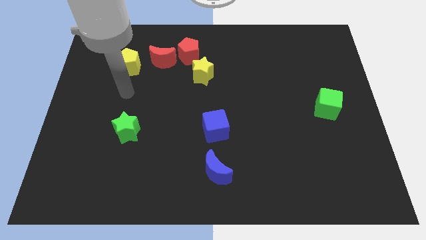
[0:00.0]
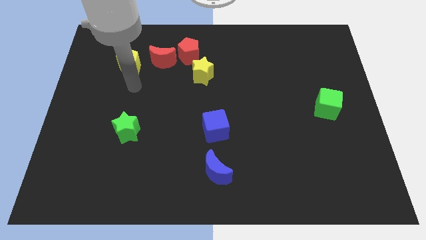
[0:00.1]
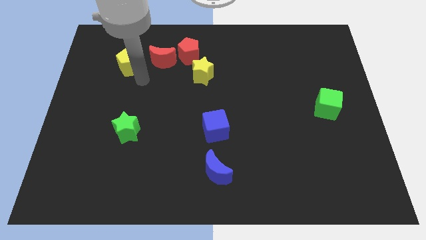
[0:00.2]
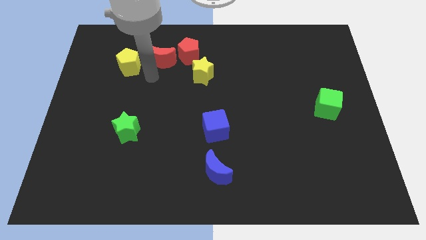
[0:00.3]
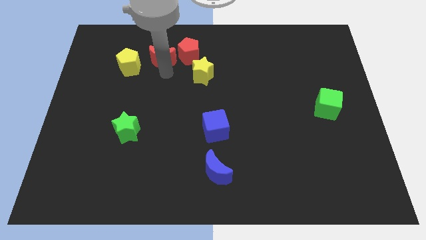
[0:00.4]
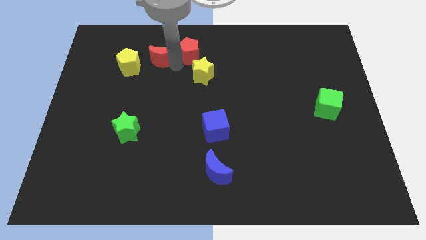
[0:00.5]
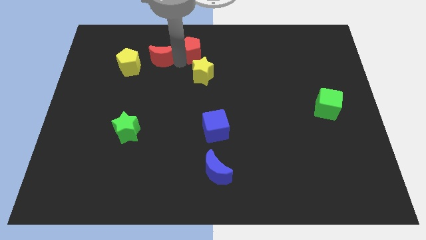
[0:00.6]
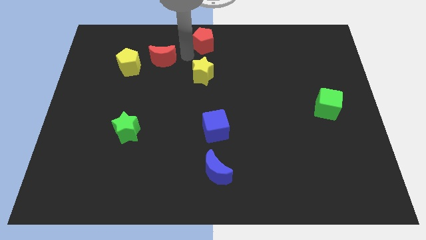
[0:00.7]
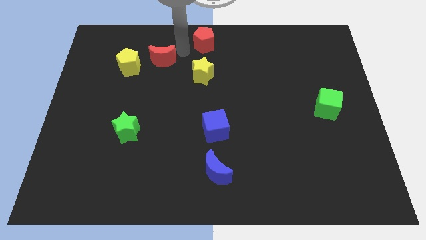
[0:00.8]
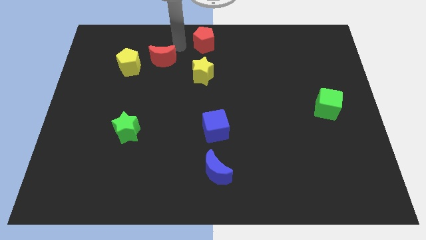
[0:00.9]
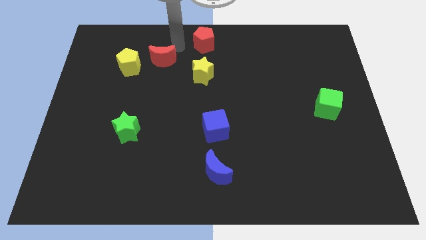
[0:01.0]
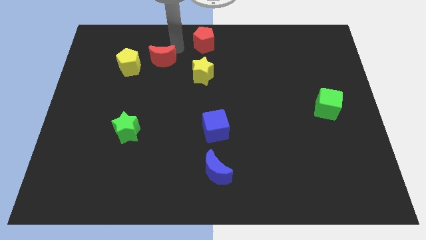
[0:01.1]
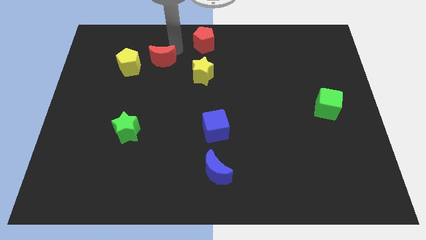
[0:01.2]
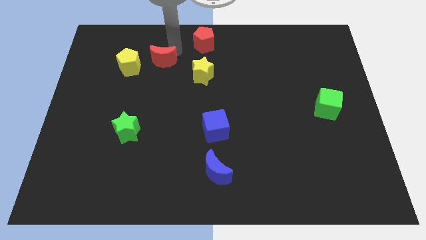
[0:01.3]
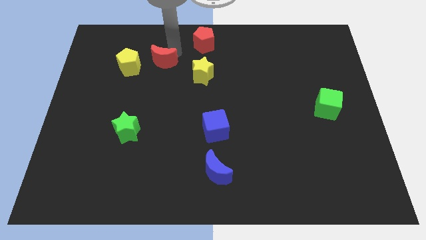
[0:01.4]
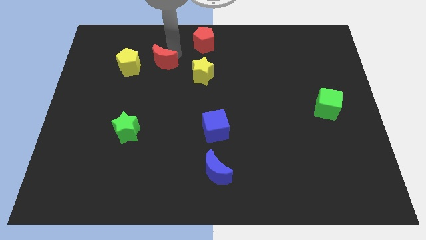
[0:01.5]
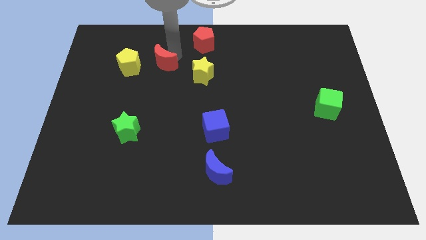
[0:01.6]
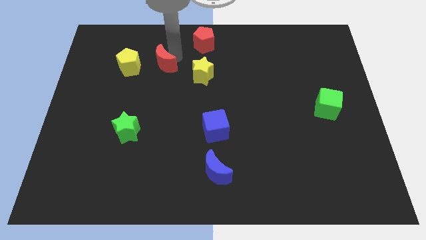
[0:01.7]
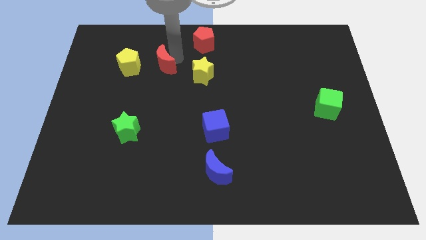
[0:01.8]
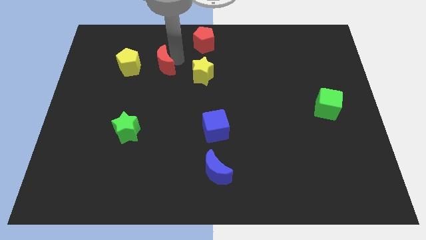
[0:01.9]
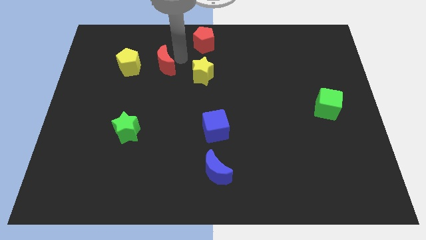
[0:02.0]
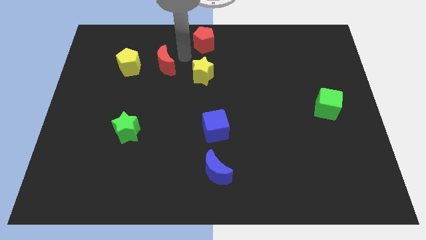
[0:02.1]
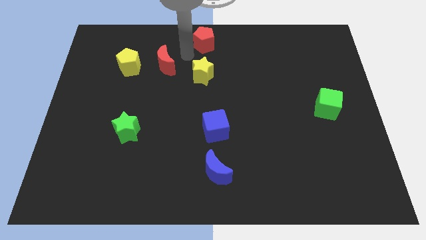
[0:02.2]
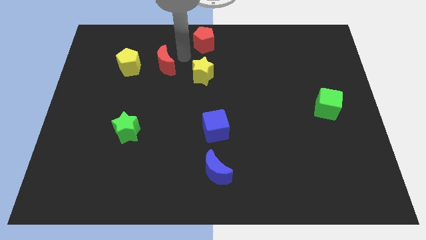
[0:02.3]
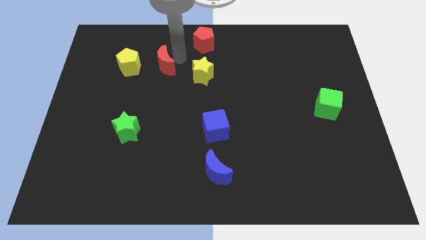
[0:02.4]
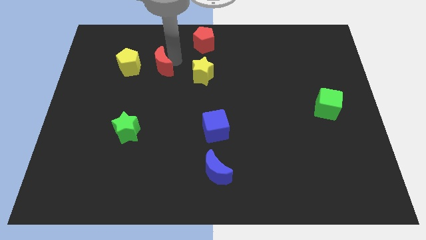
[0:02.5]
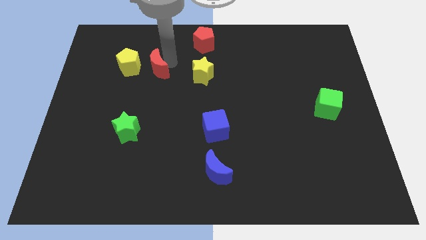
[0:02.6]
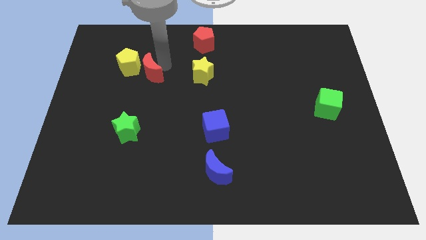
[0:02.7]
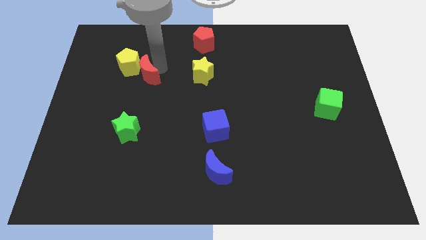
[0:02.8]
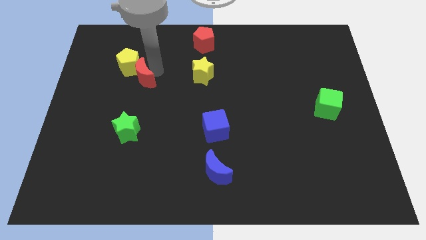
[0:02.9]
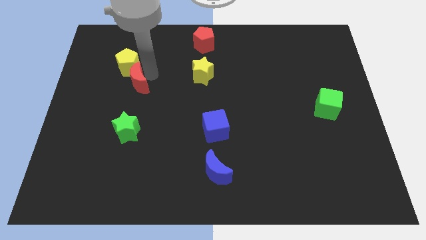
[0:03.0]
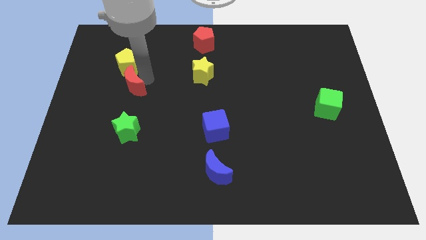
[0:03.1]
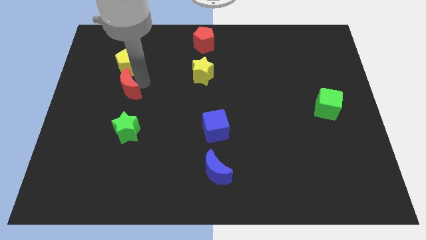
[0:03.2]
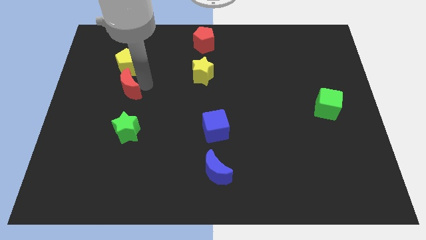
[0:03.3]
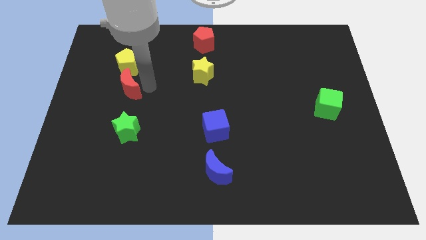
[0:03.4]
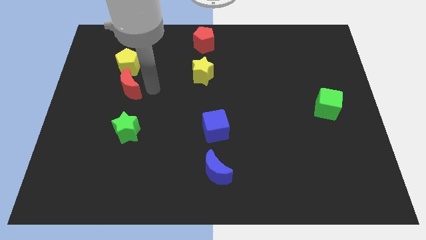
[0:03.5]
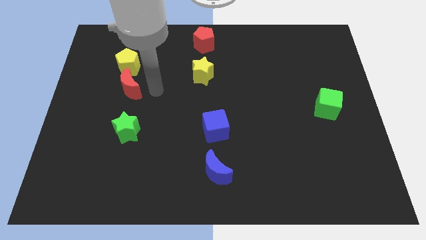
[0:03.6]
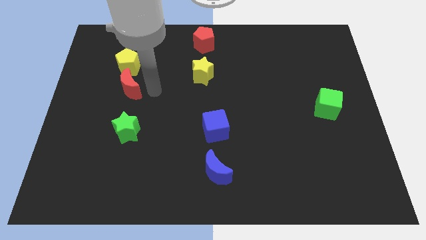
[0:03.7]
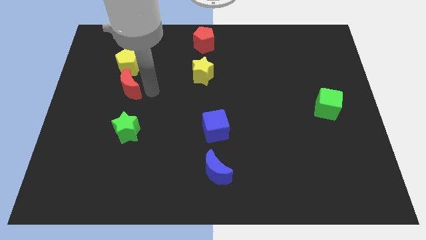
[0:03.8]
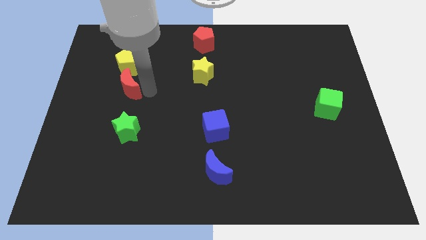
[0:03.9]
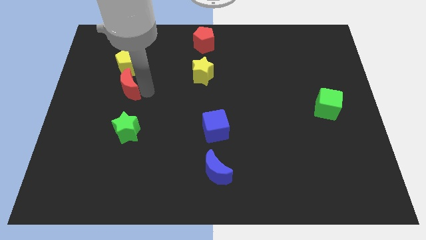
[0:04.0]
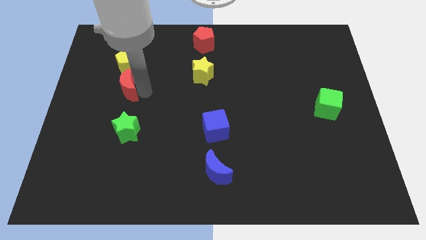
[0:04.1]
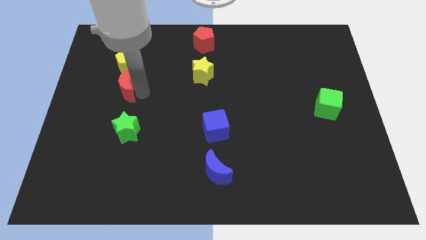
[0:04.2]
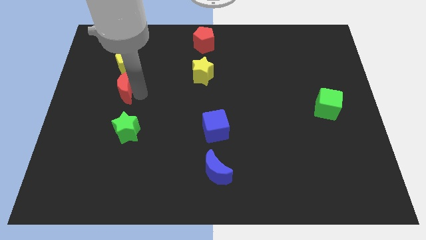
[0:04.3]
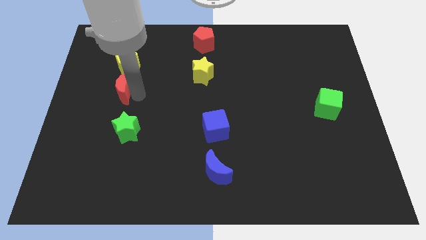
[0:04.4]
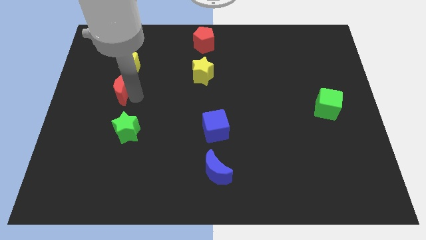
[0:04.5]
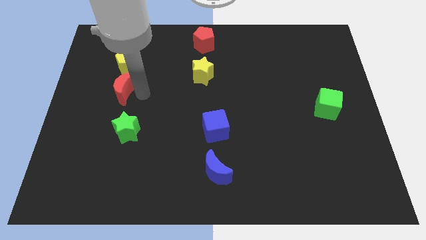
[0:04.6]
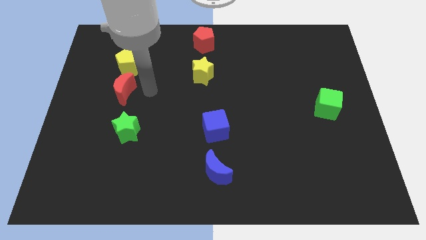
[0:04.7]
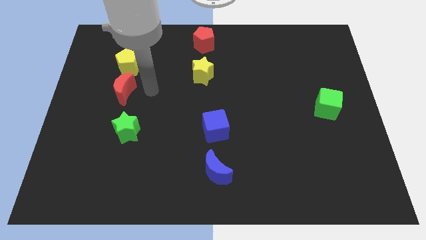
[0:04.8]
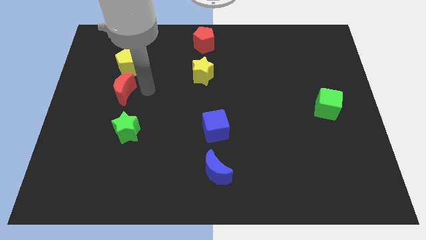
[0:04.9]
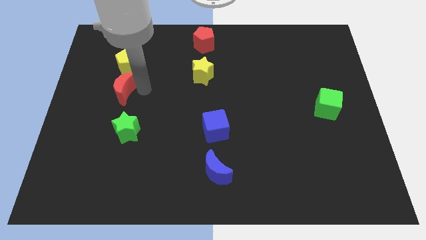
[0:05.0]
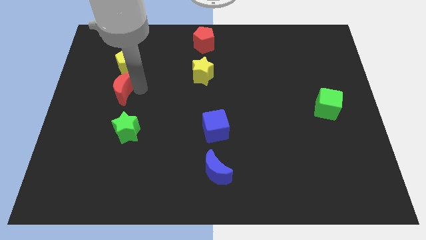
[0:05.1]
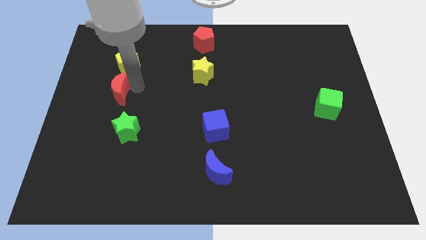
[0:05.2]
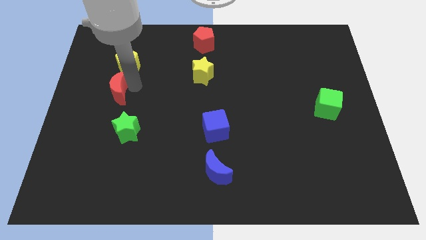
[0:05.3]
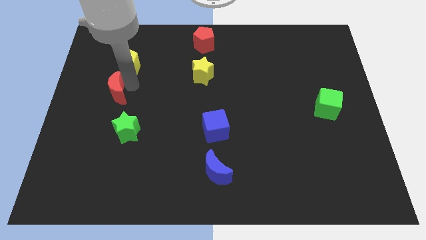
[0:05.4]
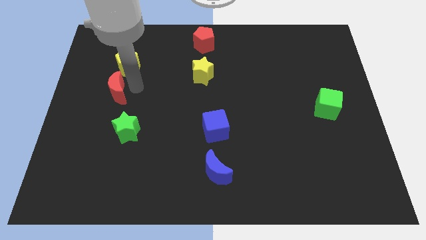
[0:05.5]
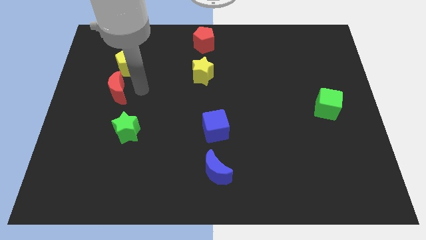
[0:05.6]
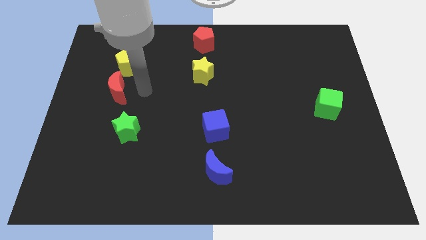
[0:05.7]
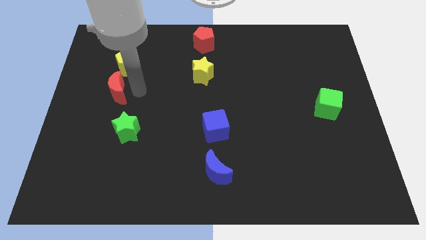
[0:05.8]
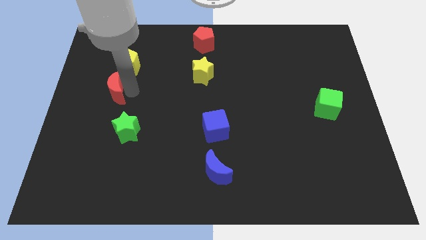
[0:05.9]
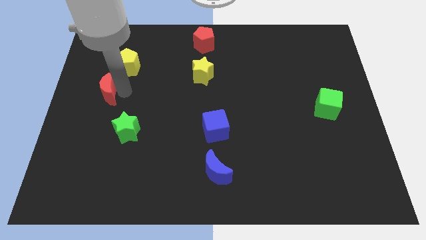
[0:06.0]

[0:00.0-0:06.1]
put the red moon to the left side of the board
